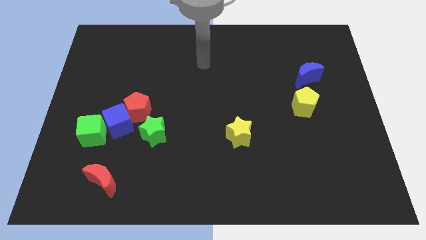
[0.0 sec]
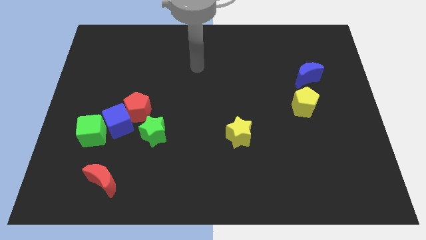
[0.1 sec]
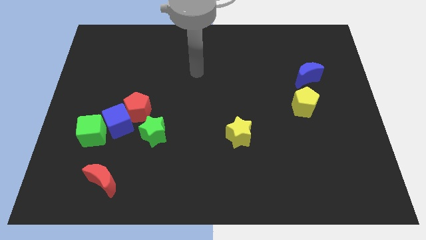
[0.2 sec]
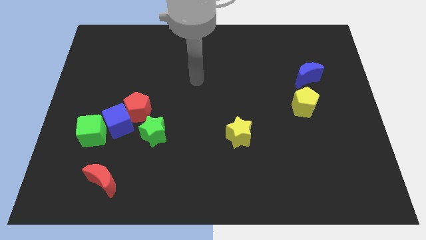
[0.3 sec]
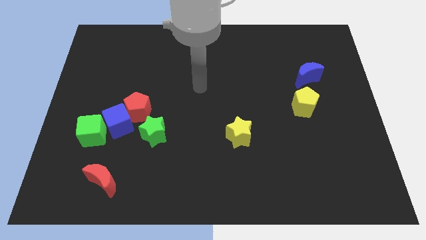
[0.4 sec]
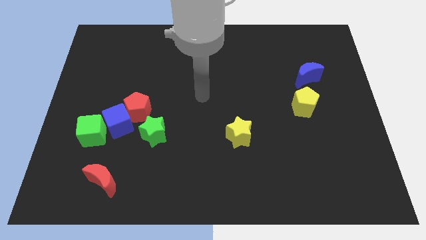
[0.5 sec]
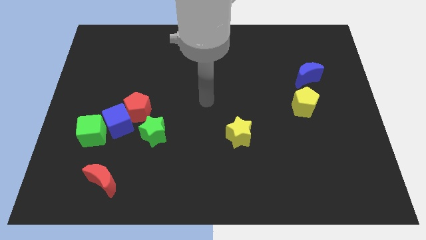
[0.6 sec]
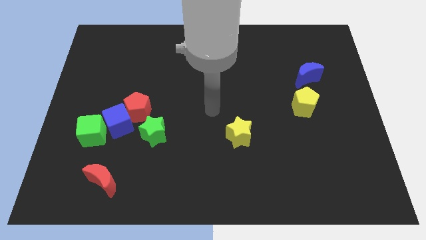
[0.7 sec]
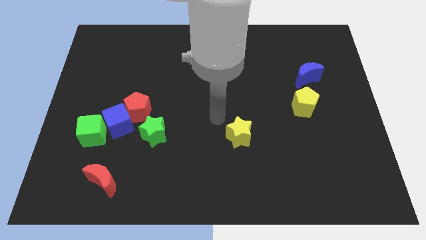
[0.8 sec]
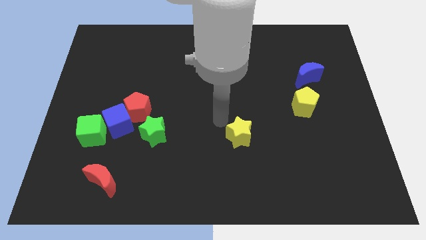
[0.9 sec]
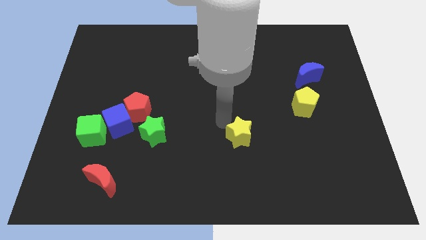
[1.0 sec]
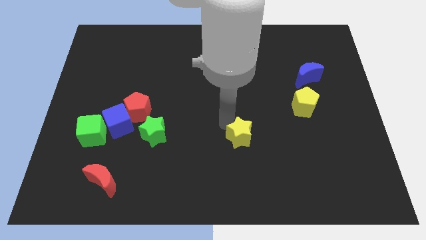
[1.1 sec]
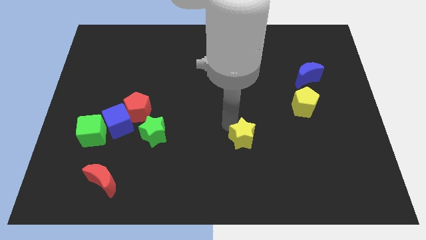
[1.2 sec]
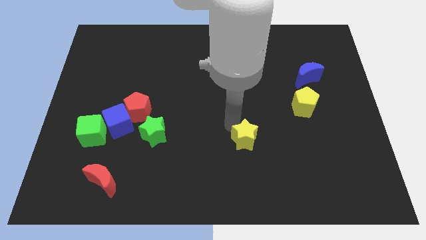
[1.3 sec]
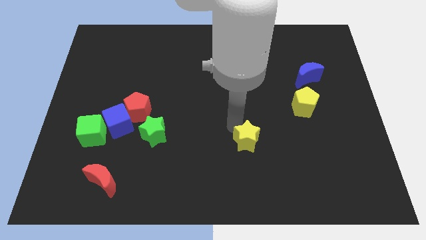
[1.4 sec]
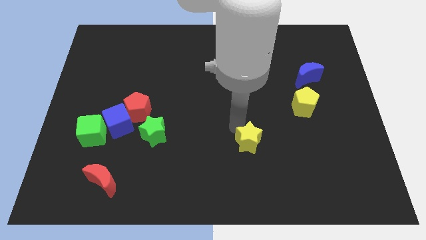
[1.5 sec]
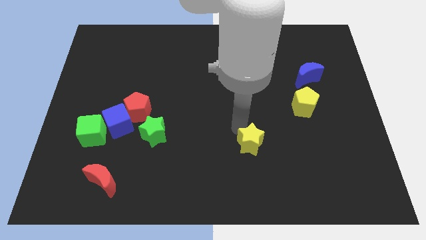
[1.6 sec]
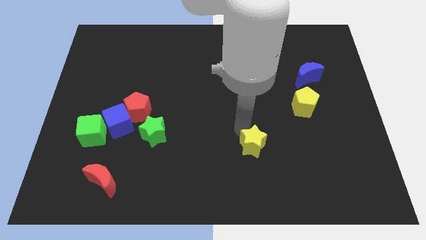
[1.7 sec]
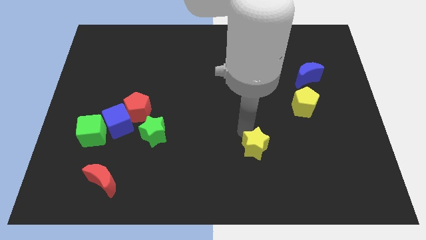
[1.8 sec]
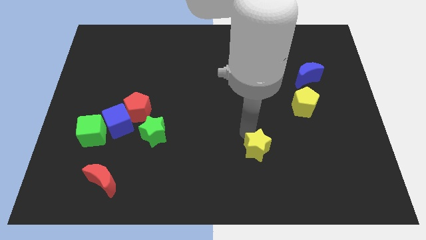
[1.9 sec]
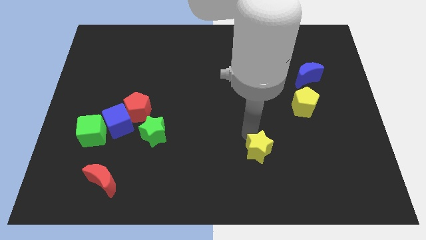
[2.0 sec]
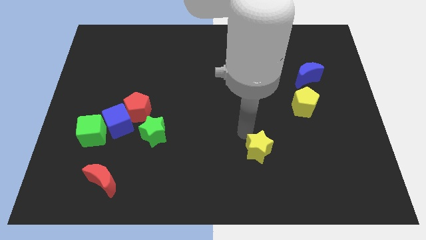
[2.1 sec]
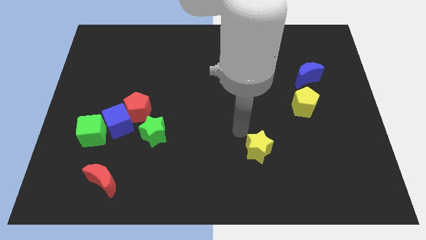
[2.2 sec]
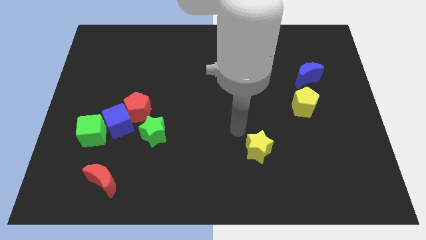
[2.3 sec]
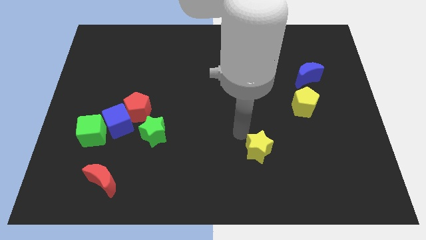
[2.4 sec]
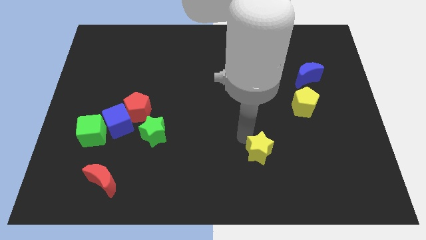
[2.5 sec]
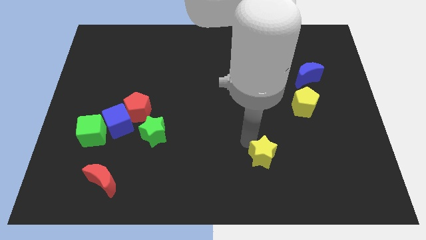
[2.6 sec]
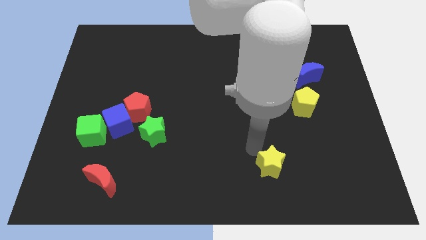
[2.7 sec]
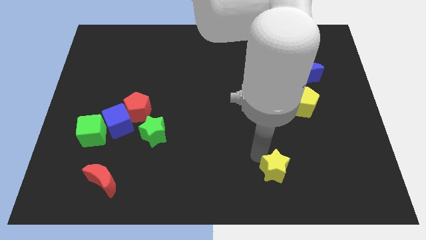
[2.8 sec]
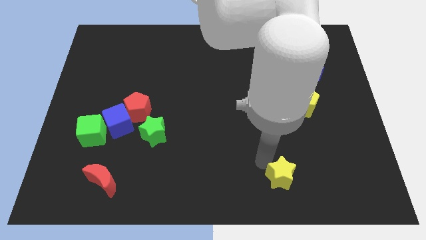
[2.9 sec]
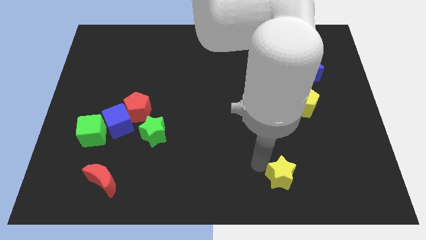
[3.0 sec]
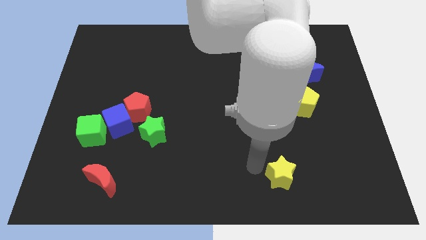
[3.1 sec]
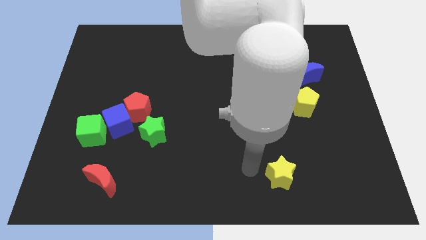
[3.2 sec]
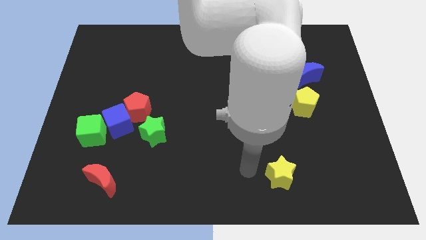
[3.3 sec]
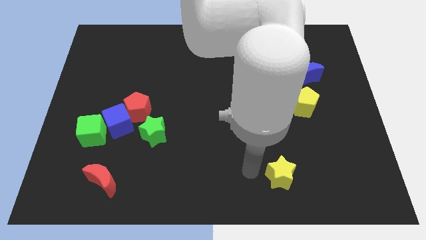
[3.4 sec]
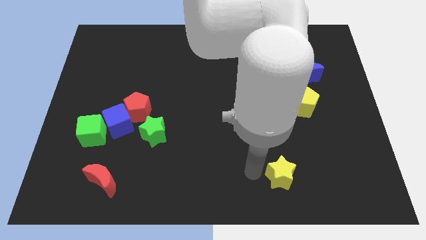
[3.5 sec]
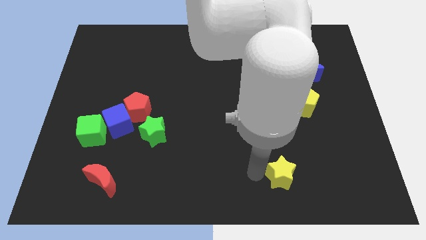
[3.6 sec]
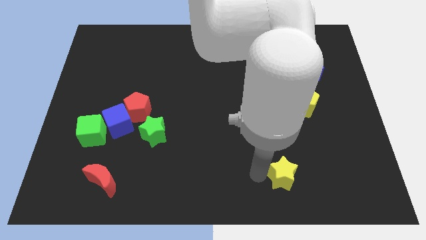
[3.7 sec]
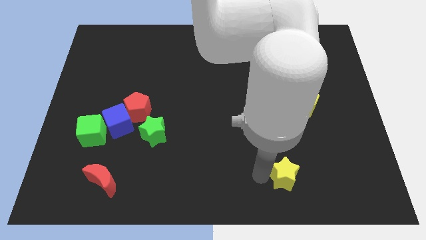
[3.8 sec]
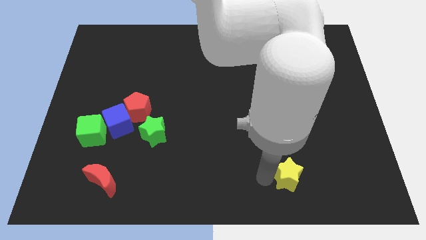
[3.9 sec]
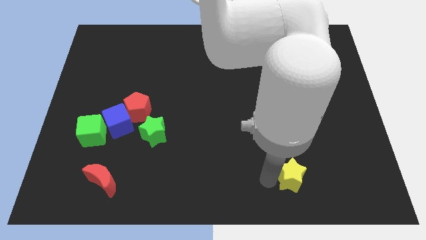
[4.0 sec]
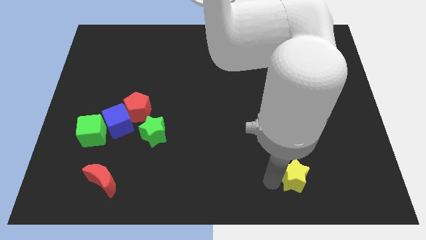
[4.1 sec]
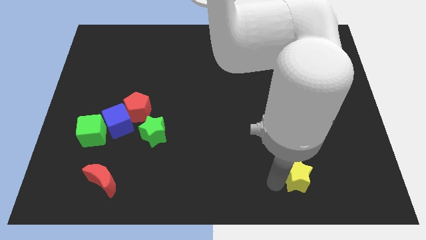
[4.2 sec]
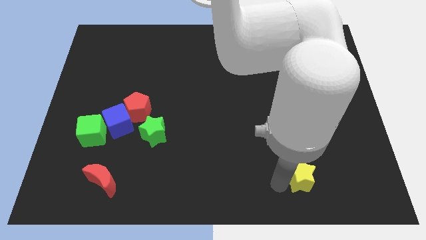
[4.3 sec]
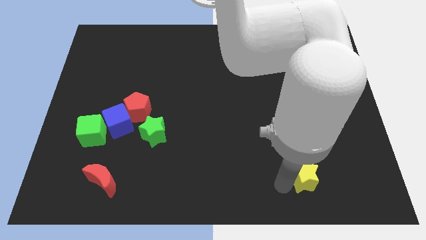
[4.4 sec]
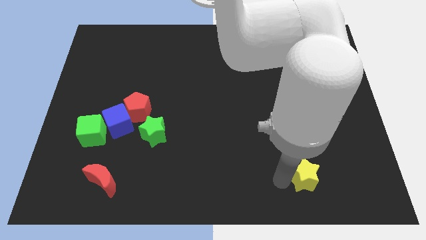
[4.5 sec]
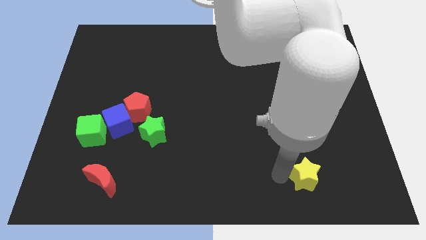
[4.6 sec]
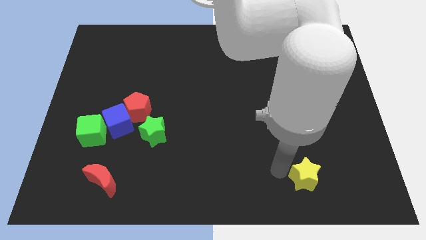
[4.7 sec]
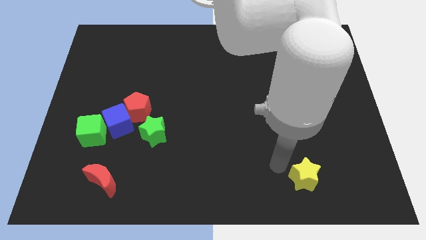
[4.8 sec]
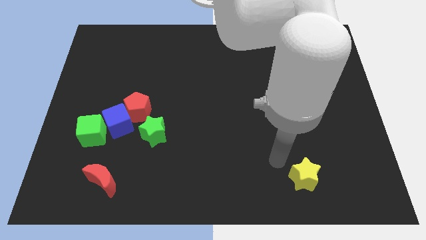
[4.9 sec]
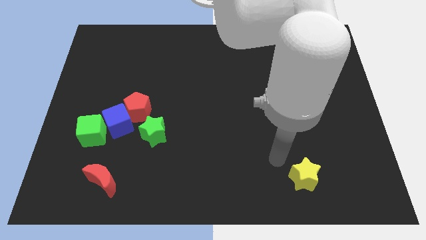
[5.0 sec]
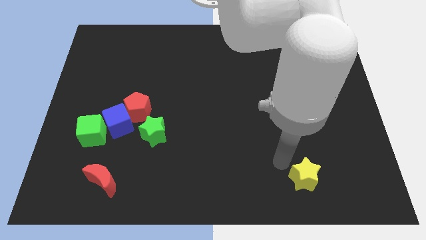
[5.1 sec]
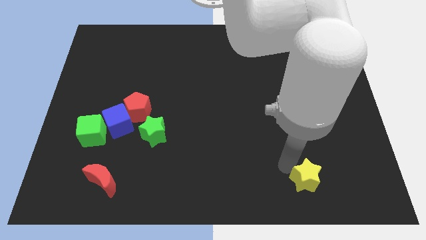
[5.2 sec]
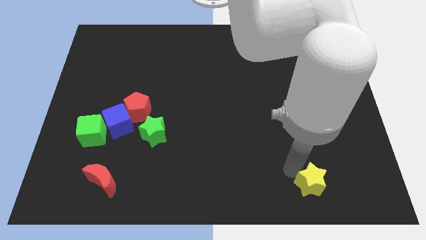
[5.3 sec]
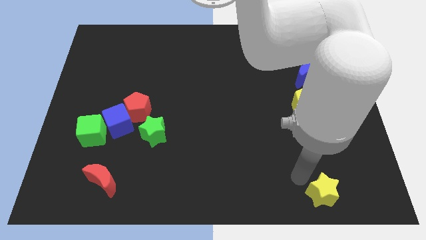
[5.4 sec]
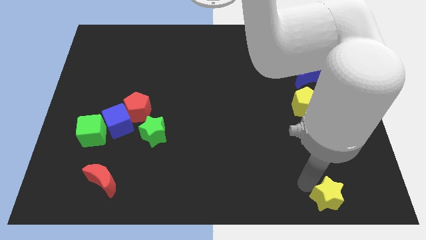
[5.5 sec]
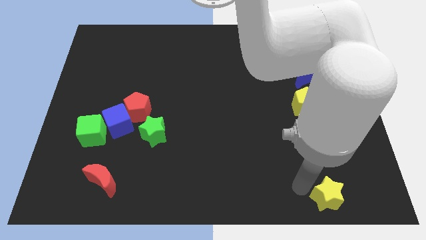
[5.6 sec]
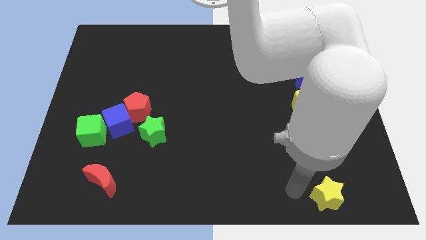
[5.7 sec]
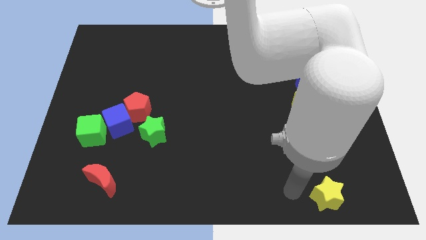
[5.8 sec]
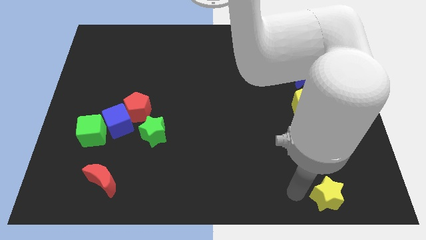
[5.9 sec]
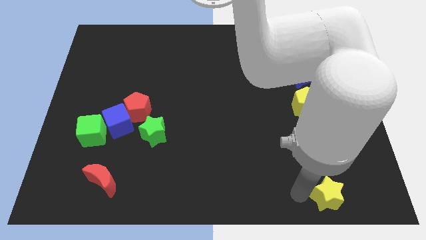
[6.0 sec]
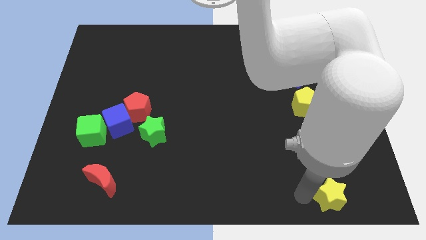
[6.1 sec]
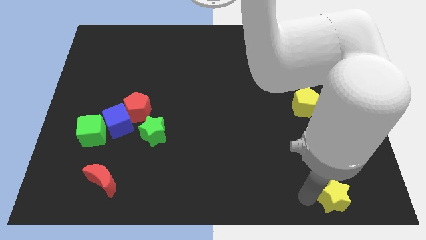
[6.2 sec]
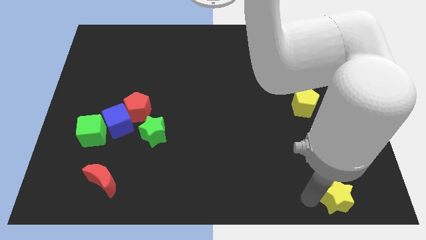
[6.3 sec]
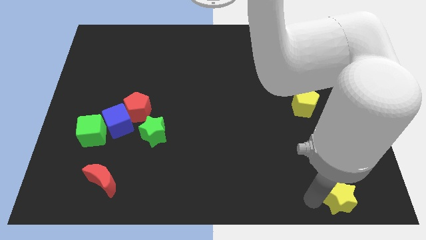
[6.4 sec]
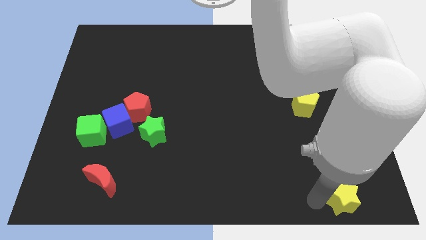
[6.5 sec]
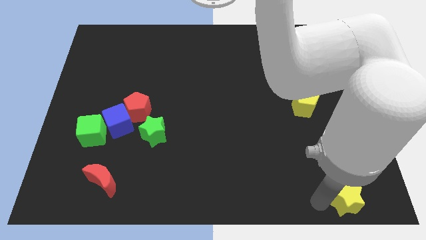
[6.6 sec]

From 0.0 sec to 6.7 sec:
push the yellow star to the bottom right corner
